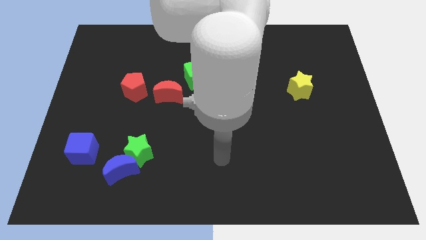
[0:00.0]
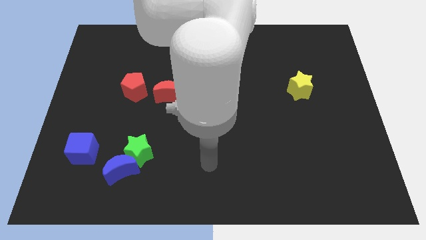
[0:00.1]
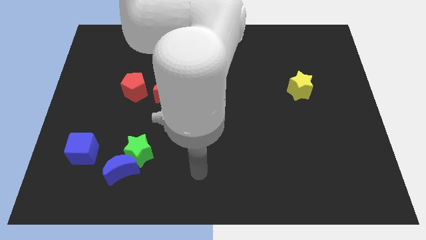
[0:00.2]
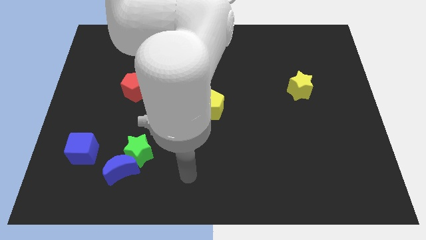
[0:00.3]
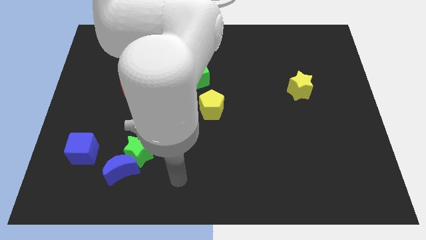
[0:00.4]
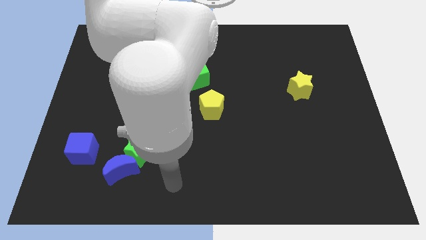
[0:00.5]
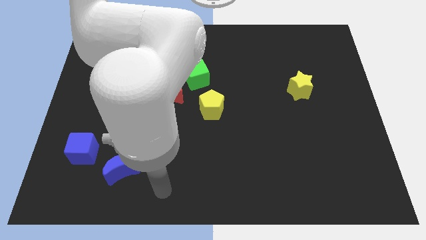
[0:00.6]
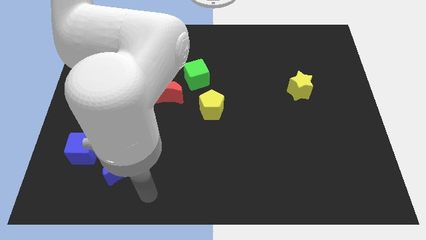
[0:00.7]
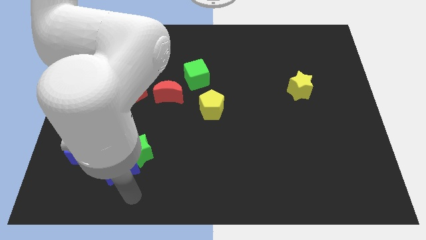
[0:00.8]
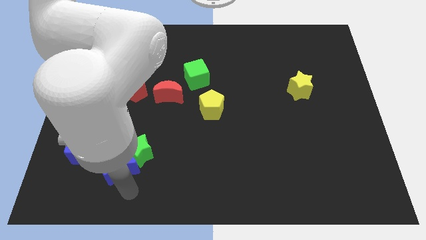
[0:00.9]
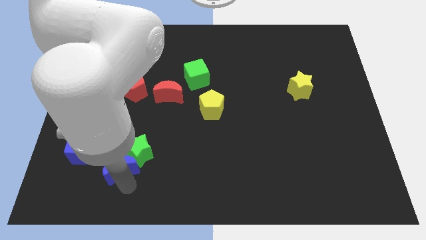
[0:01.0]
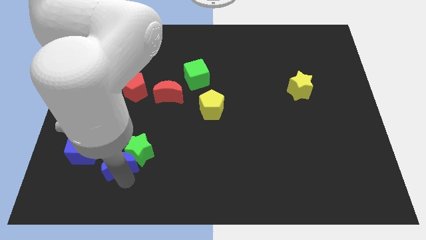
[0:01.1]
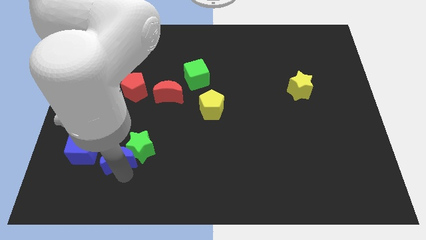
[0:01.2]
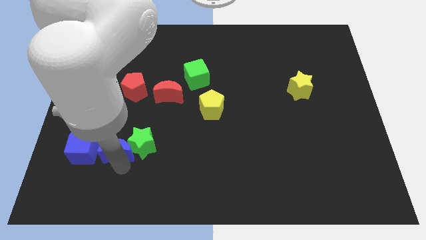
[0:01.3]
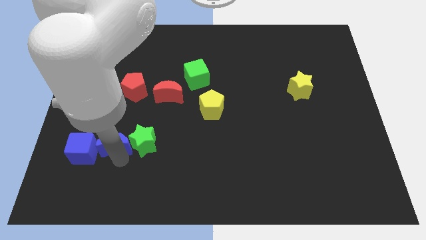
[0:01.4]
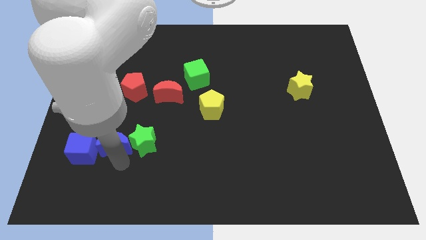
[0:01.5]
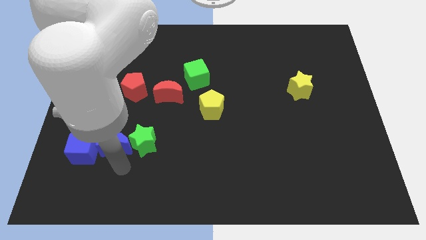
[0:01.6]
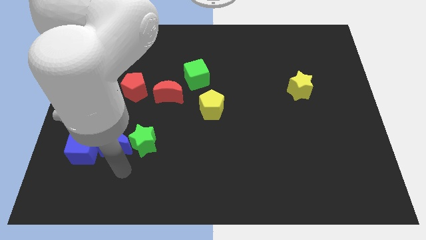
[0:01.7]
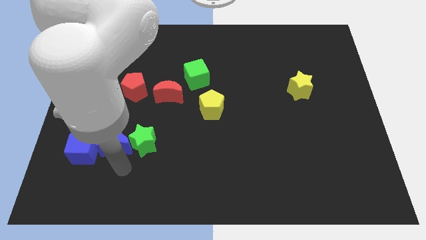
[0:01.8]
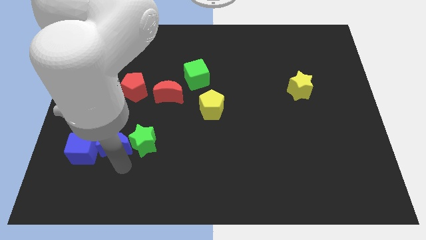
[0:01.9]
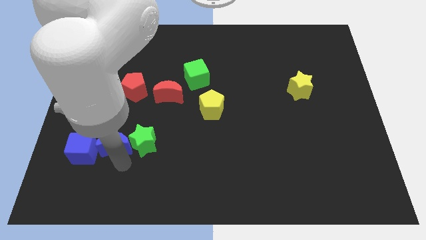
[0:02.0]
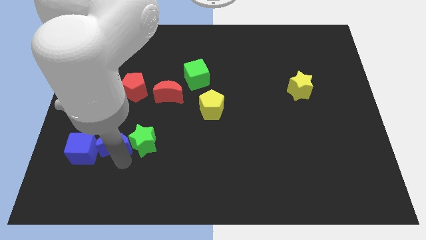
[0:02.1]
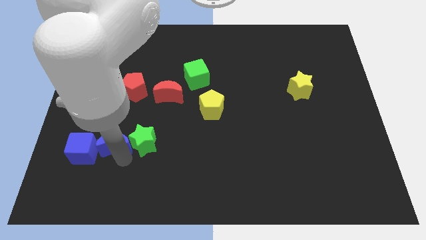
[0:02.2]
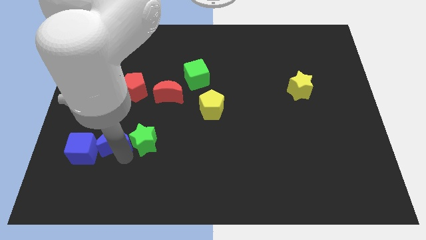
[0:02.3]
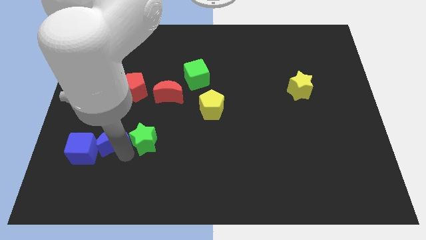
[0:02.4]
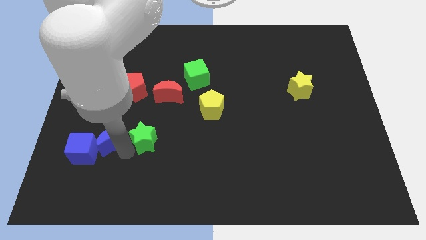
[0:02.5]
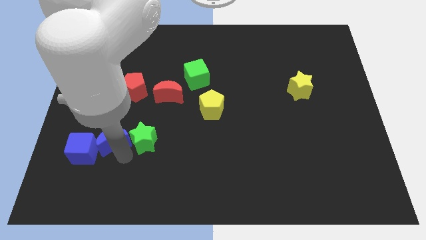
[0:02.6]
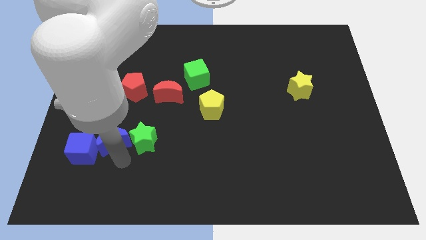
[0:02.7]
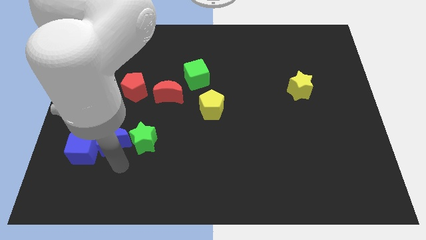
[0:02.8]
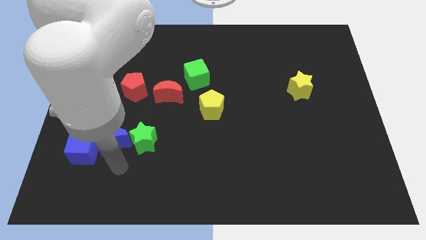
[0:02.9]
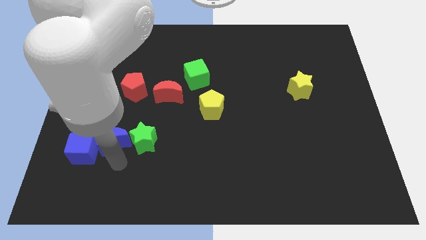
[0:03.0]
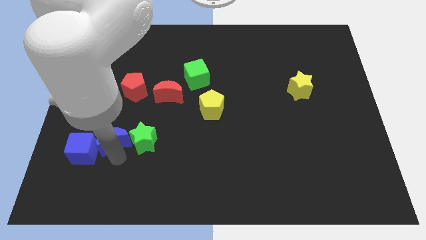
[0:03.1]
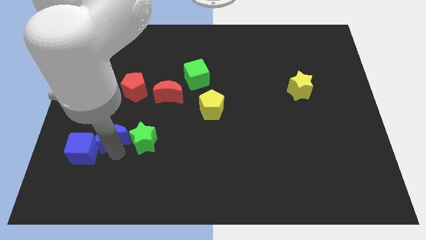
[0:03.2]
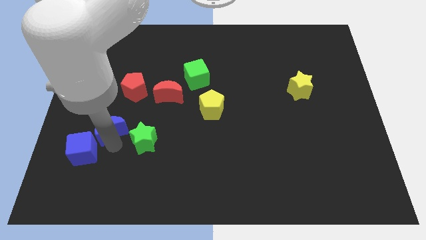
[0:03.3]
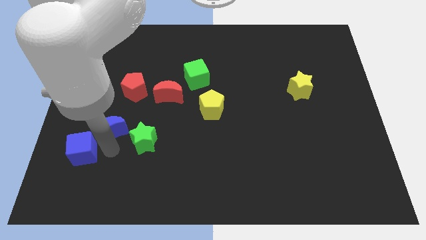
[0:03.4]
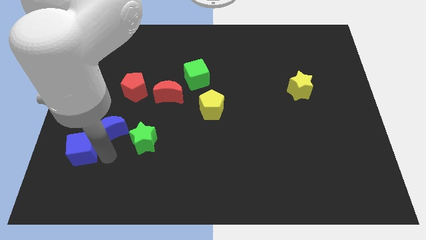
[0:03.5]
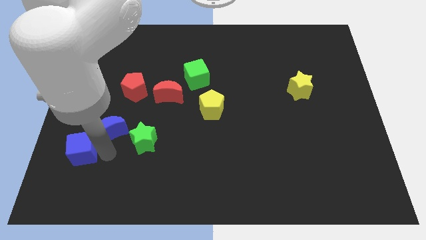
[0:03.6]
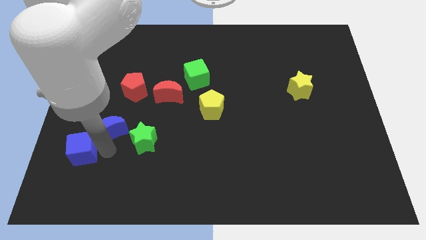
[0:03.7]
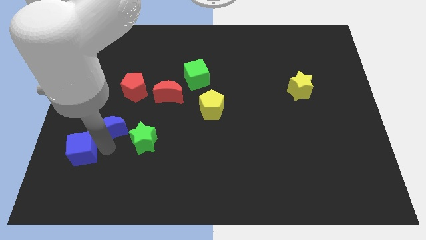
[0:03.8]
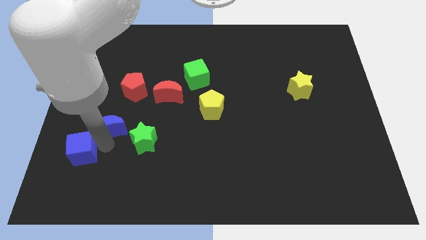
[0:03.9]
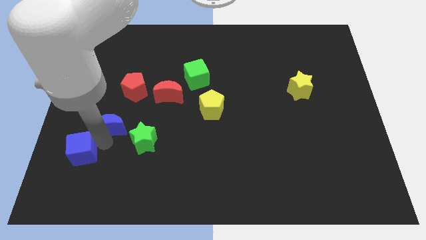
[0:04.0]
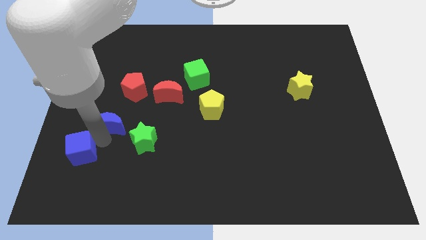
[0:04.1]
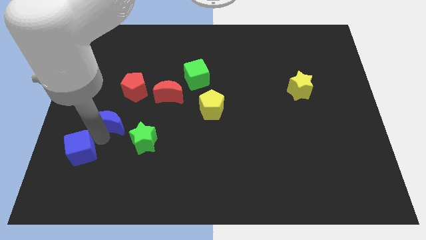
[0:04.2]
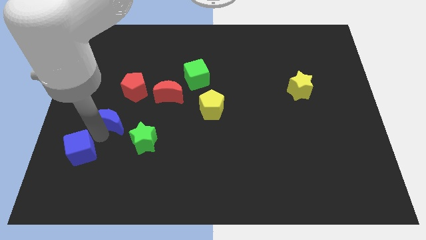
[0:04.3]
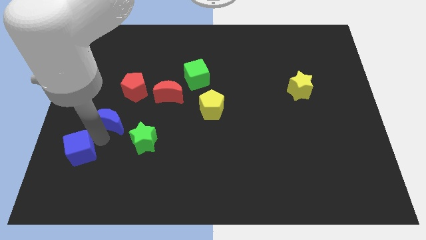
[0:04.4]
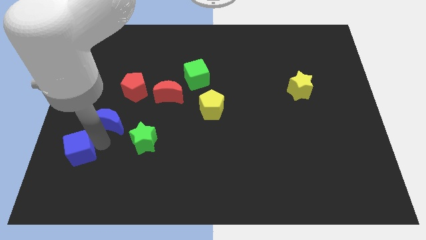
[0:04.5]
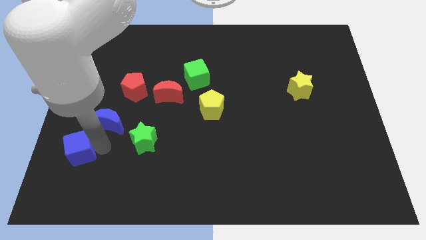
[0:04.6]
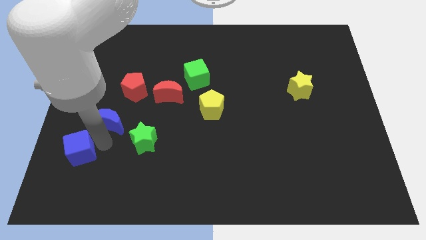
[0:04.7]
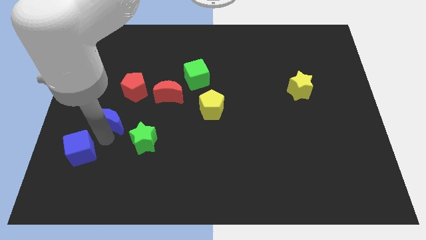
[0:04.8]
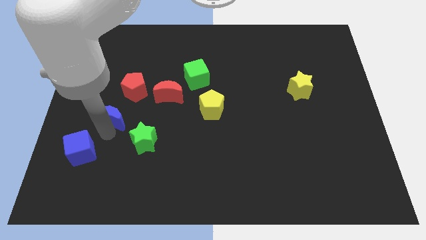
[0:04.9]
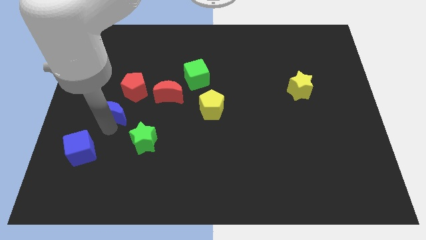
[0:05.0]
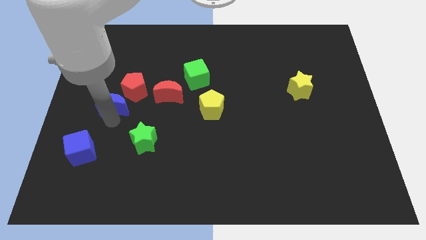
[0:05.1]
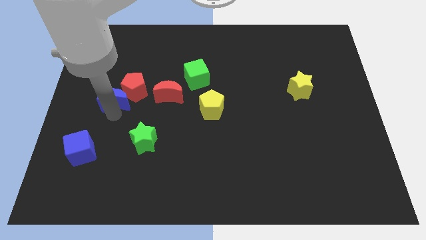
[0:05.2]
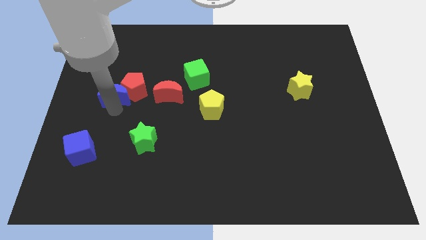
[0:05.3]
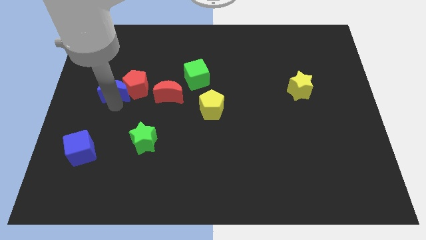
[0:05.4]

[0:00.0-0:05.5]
push the blue moon upwards

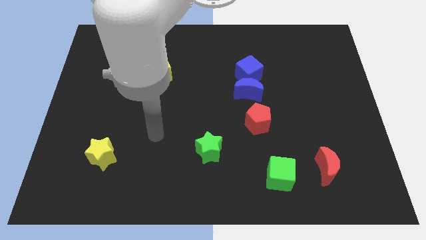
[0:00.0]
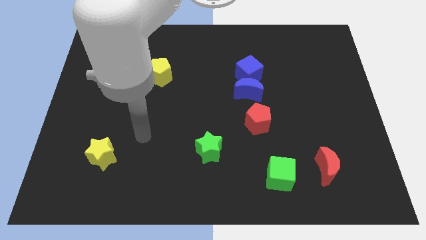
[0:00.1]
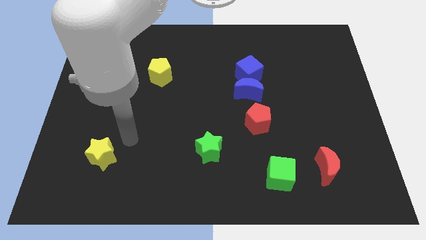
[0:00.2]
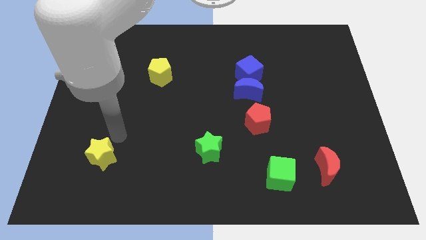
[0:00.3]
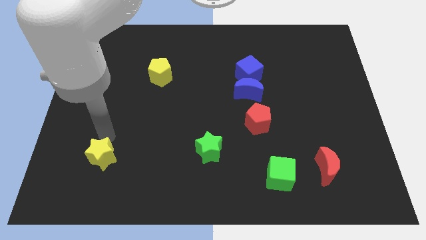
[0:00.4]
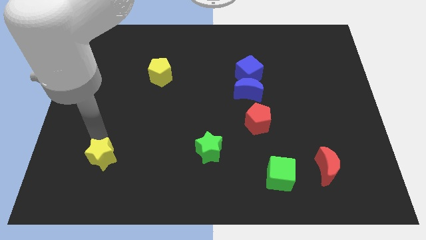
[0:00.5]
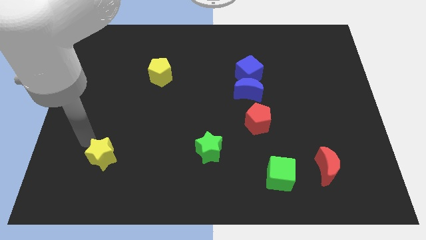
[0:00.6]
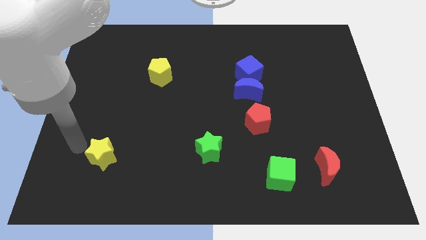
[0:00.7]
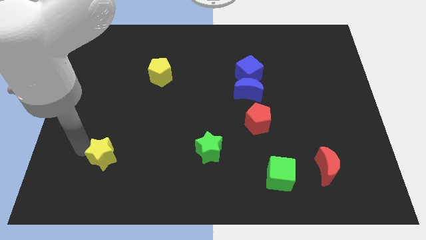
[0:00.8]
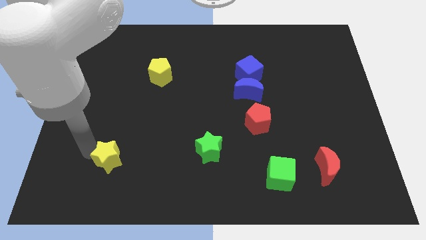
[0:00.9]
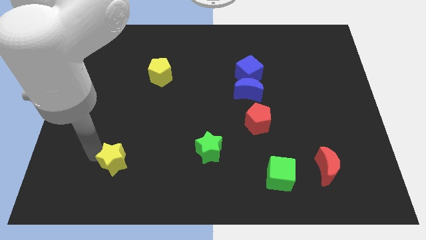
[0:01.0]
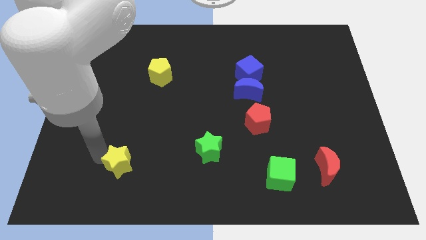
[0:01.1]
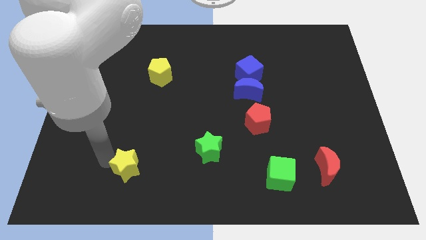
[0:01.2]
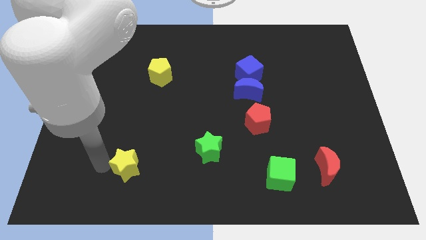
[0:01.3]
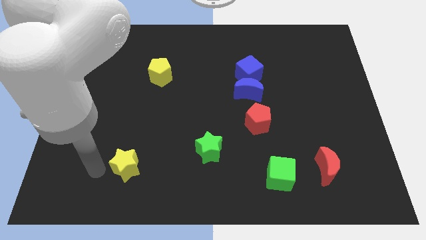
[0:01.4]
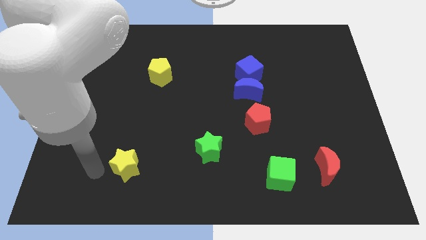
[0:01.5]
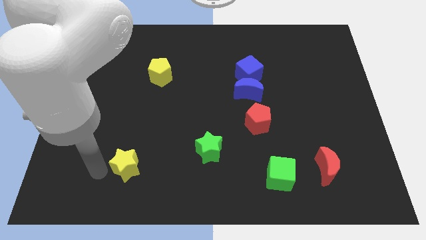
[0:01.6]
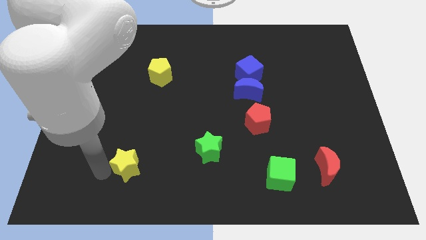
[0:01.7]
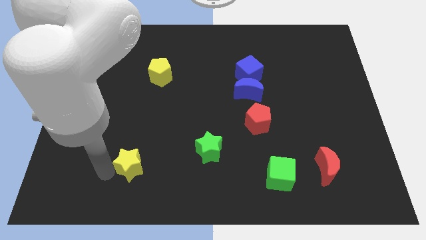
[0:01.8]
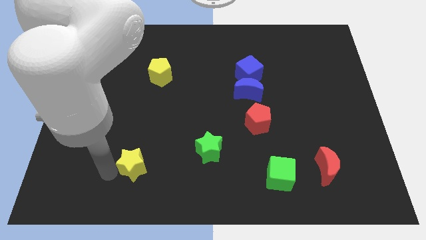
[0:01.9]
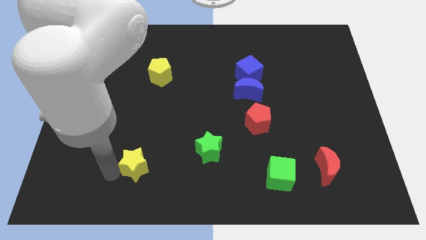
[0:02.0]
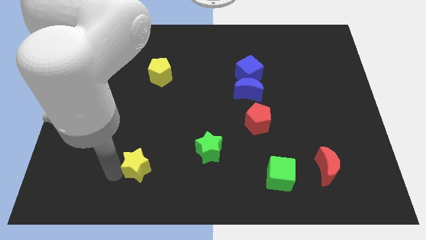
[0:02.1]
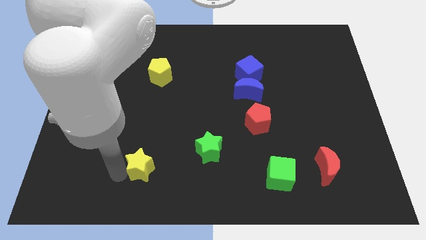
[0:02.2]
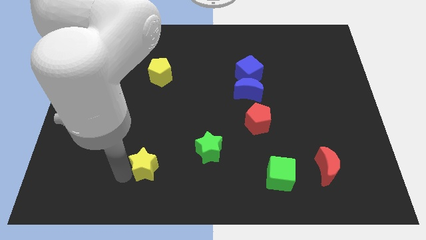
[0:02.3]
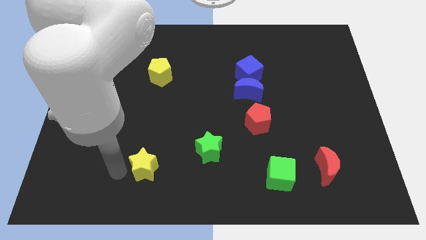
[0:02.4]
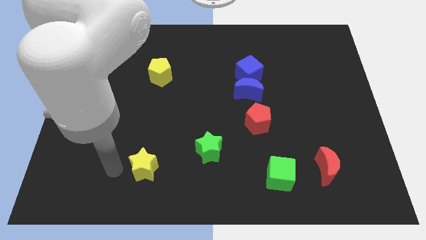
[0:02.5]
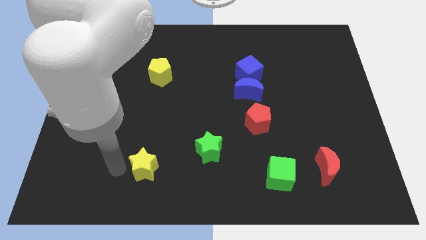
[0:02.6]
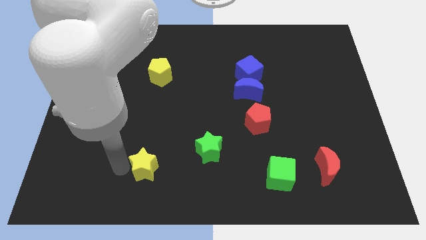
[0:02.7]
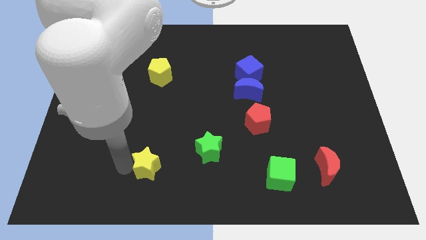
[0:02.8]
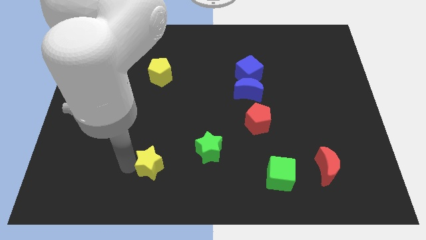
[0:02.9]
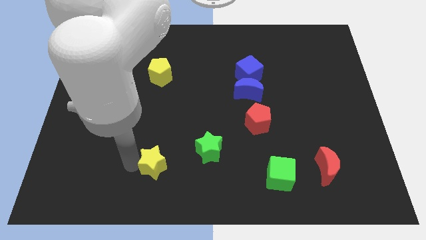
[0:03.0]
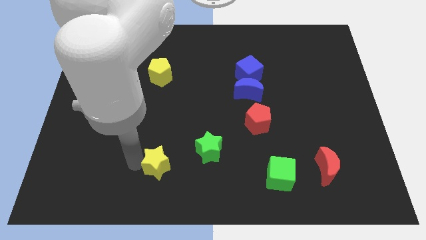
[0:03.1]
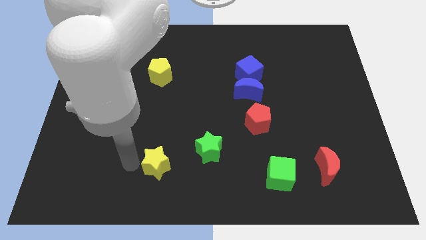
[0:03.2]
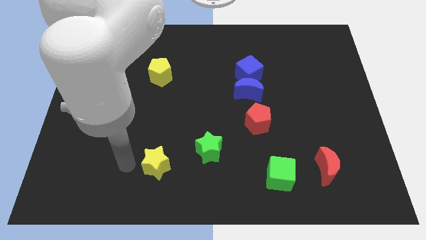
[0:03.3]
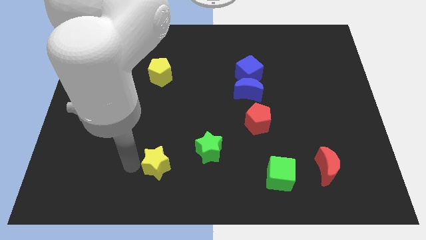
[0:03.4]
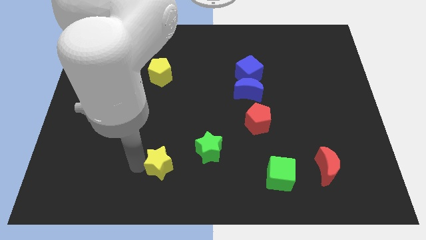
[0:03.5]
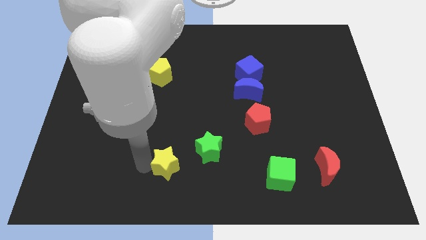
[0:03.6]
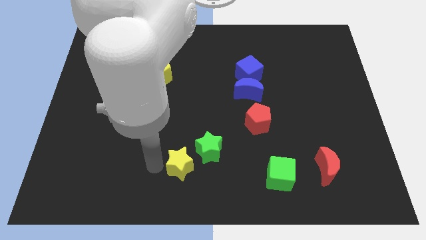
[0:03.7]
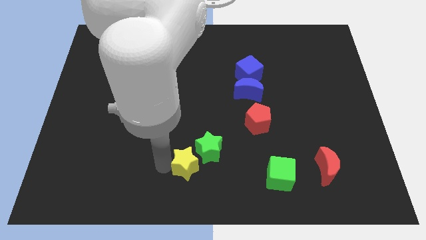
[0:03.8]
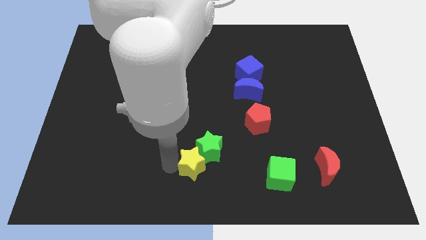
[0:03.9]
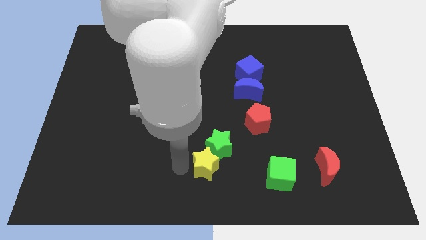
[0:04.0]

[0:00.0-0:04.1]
push the yellow star to the right
